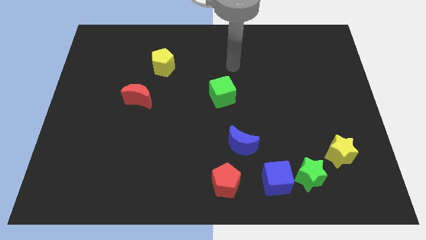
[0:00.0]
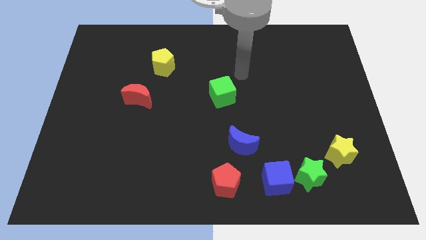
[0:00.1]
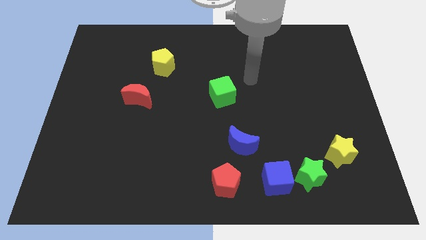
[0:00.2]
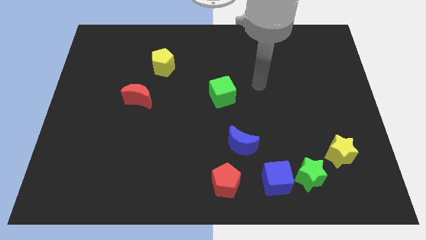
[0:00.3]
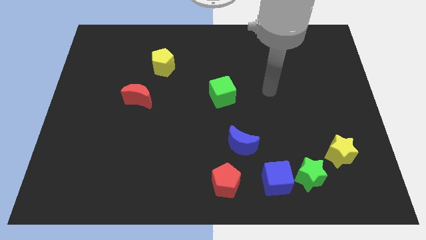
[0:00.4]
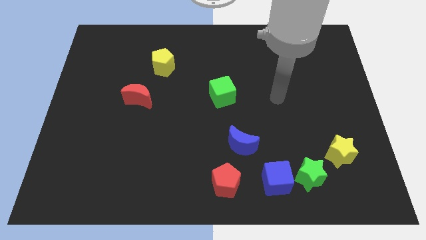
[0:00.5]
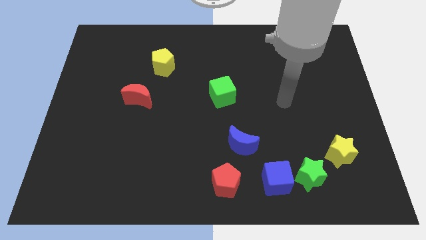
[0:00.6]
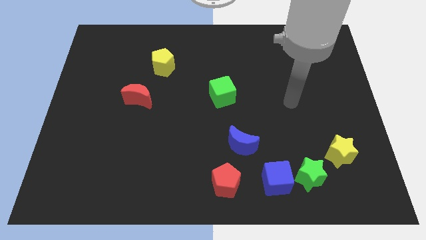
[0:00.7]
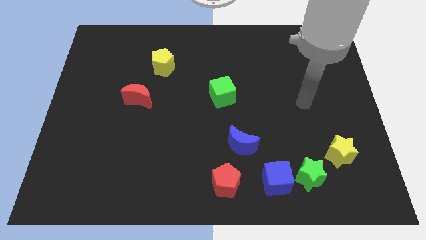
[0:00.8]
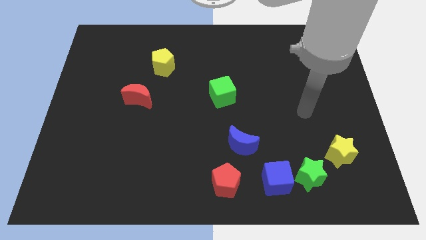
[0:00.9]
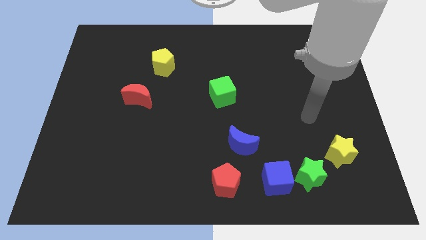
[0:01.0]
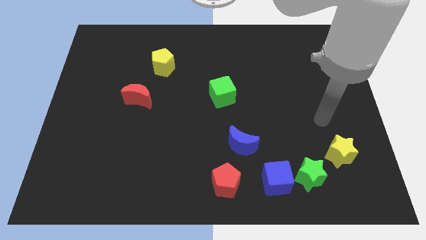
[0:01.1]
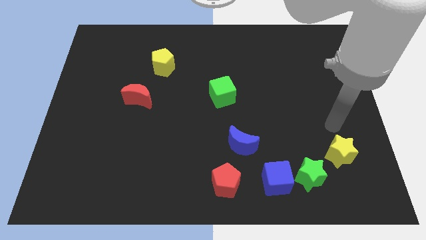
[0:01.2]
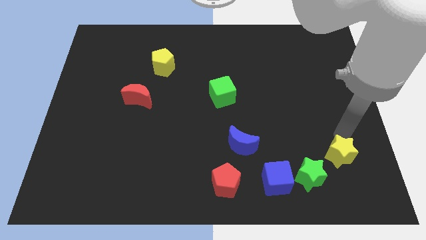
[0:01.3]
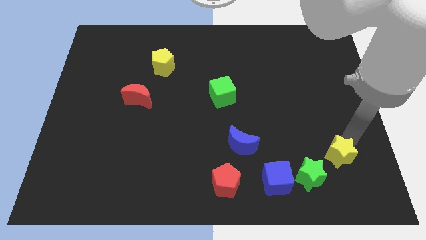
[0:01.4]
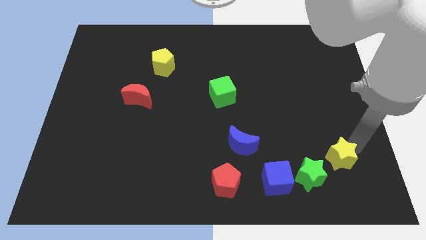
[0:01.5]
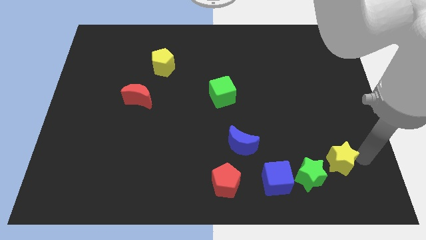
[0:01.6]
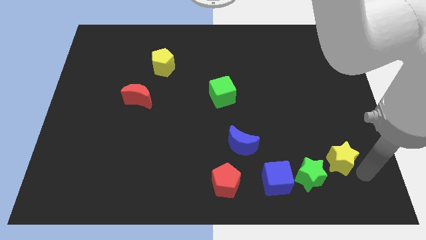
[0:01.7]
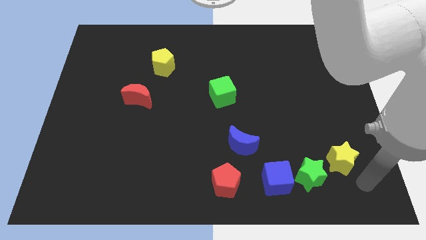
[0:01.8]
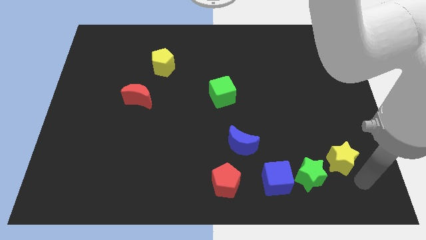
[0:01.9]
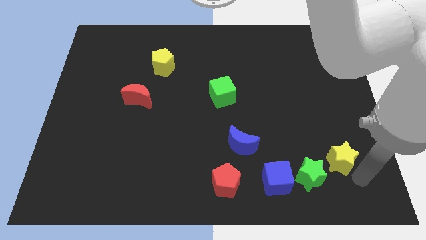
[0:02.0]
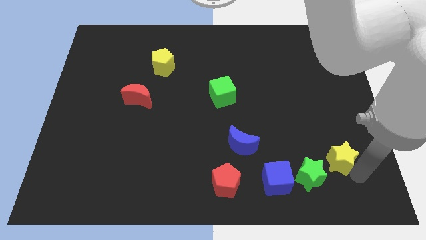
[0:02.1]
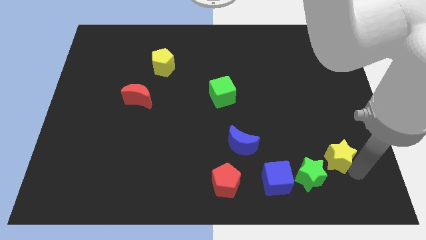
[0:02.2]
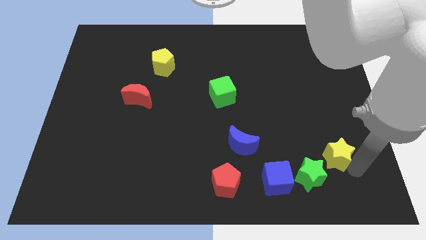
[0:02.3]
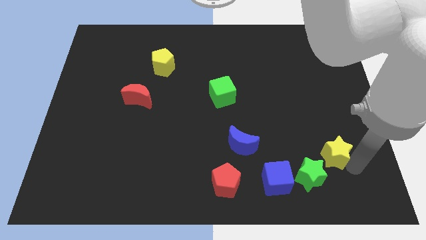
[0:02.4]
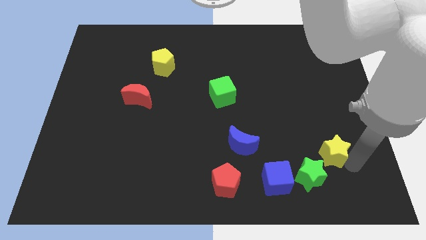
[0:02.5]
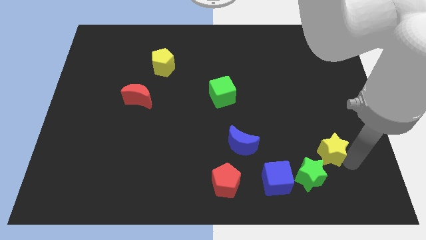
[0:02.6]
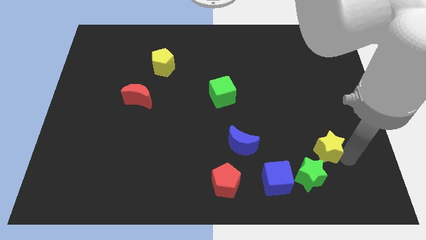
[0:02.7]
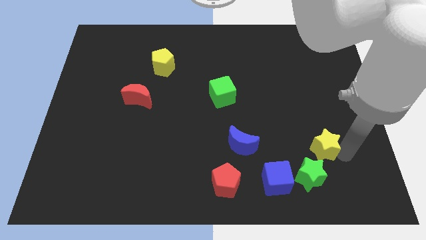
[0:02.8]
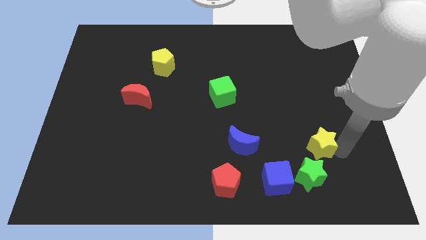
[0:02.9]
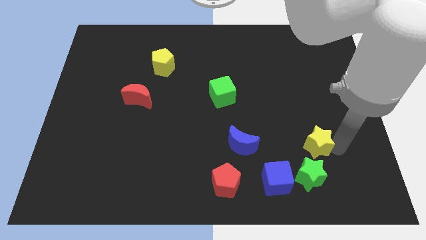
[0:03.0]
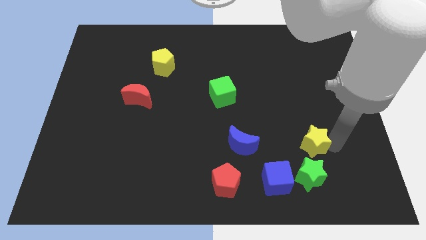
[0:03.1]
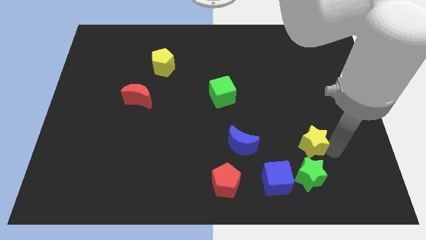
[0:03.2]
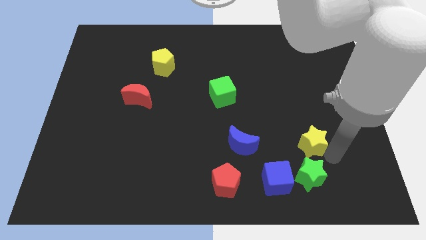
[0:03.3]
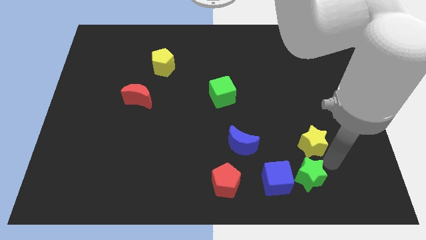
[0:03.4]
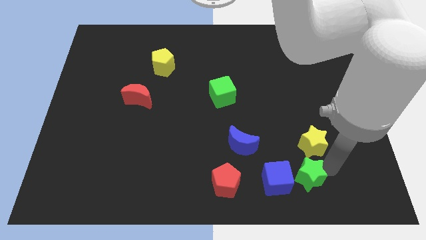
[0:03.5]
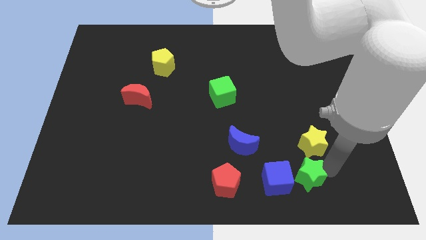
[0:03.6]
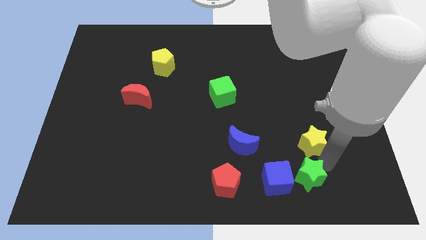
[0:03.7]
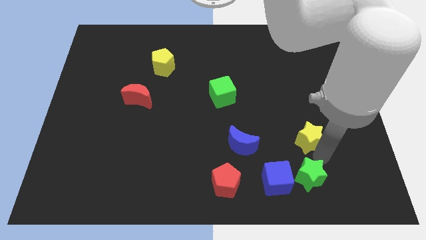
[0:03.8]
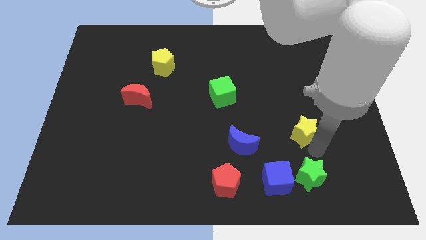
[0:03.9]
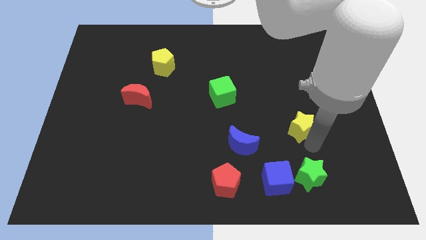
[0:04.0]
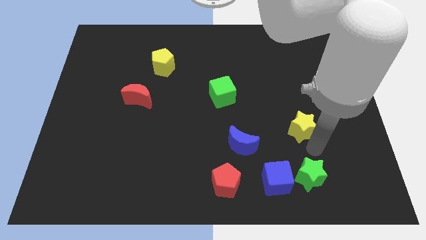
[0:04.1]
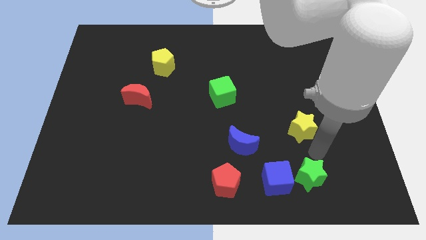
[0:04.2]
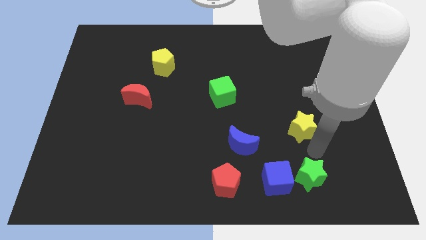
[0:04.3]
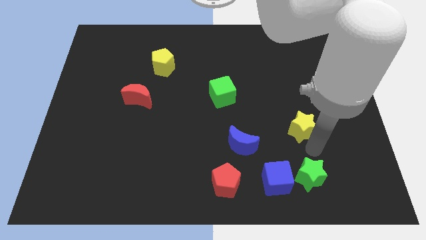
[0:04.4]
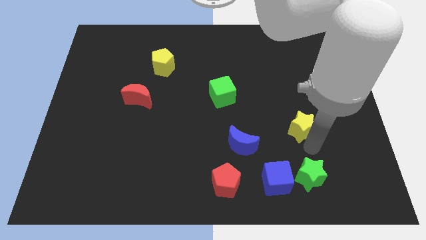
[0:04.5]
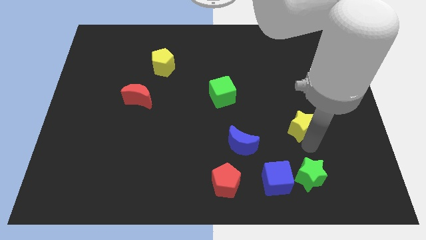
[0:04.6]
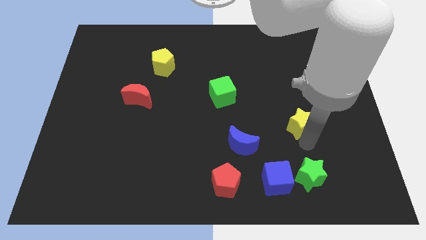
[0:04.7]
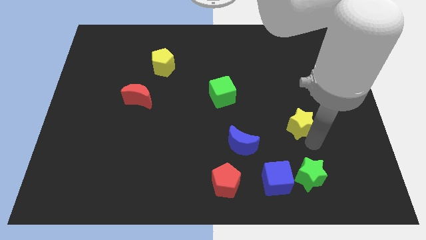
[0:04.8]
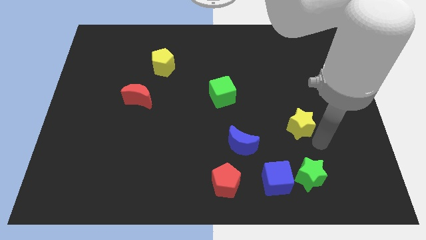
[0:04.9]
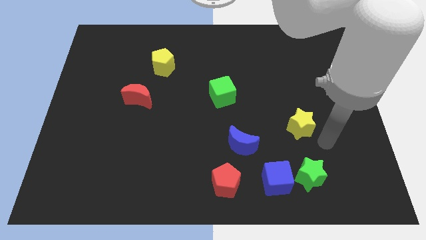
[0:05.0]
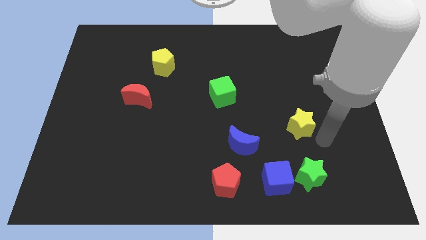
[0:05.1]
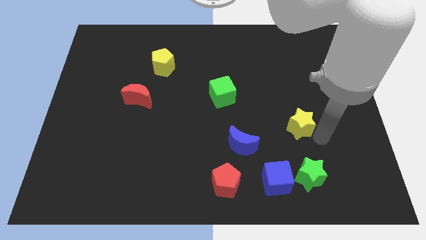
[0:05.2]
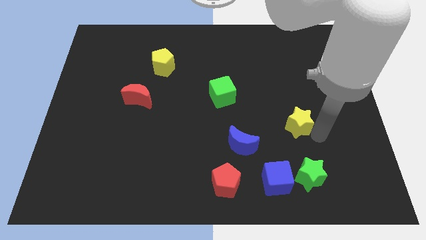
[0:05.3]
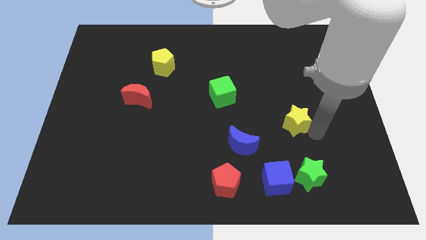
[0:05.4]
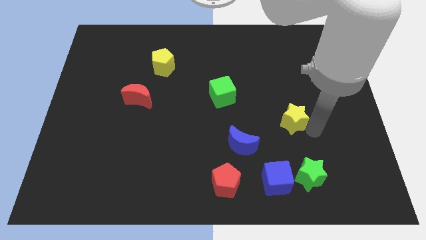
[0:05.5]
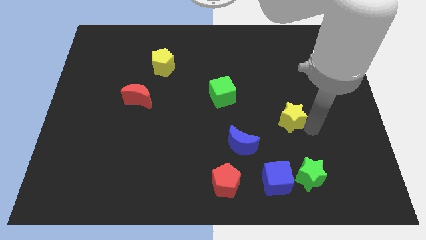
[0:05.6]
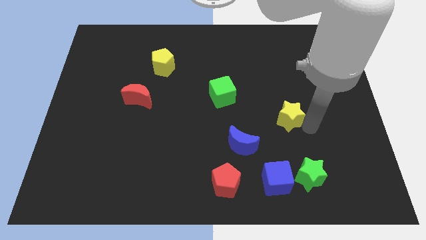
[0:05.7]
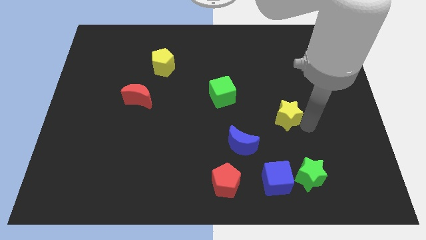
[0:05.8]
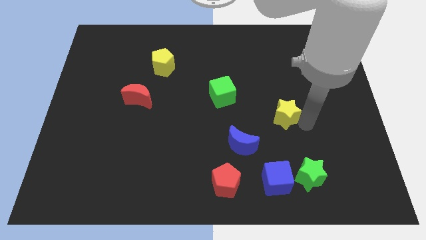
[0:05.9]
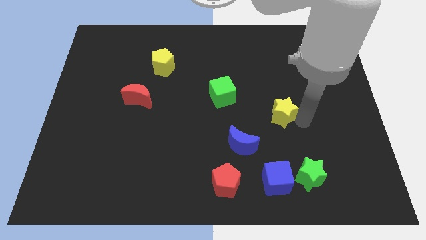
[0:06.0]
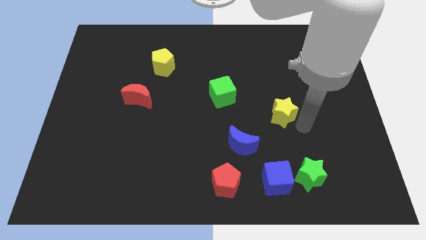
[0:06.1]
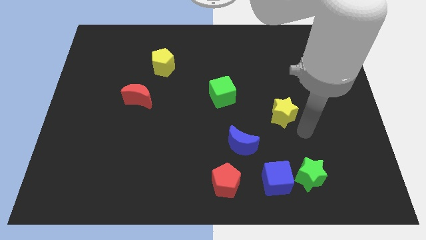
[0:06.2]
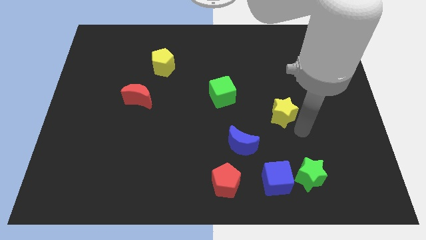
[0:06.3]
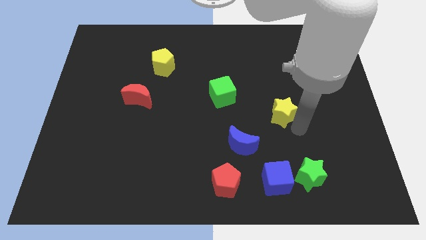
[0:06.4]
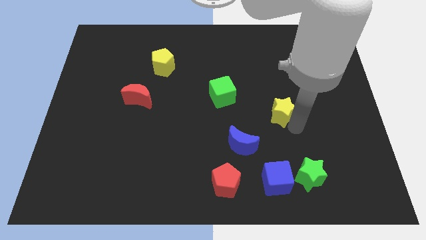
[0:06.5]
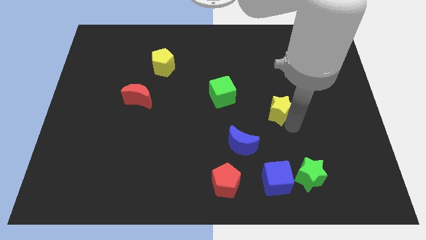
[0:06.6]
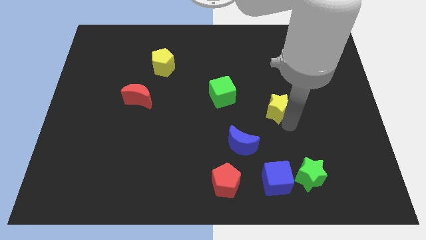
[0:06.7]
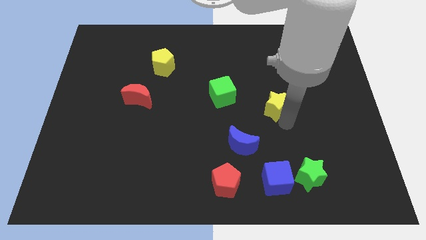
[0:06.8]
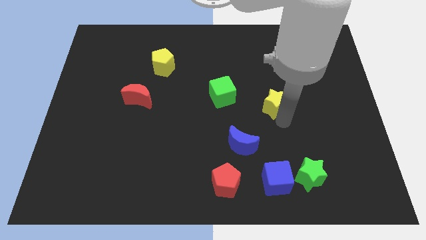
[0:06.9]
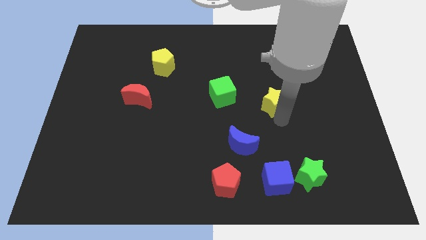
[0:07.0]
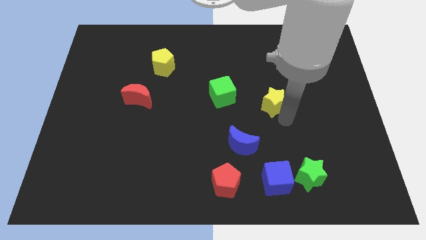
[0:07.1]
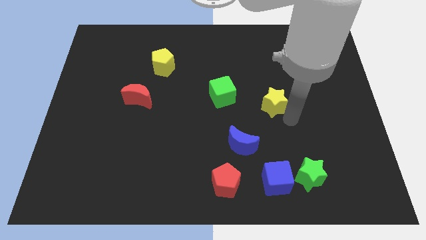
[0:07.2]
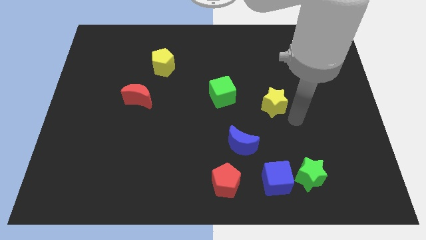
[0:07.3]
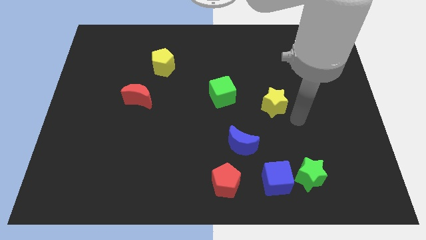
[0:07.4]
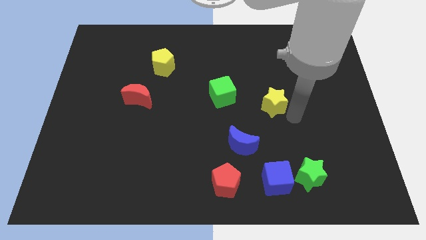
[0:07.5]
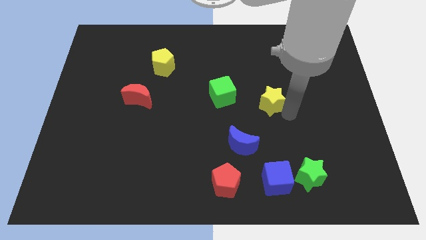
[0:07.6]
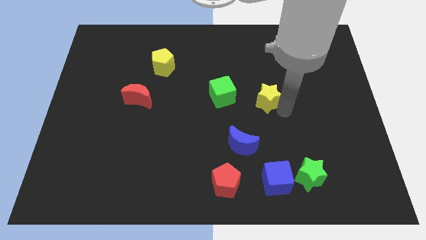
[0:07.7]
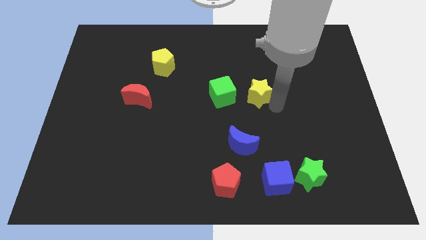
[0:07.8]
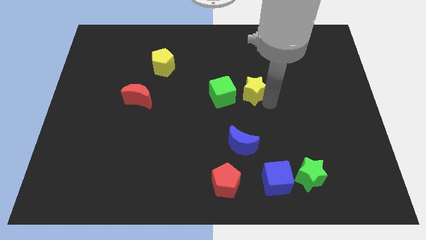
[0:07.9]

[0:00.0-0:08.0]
put the yellow star diagonally up and to the right of the green cube
